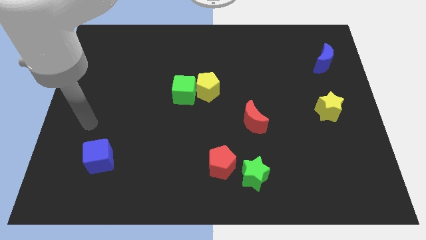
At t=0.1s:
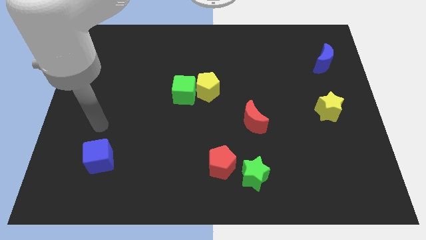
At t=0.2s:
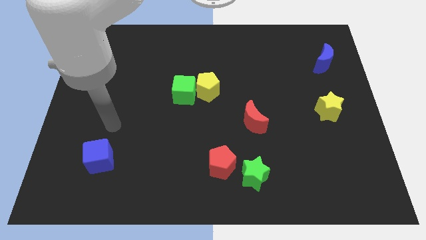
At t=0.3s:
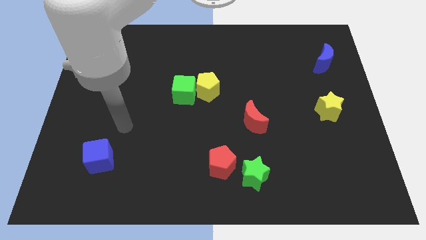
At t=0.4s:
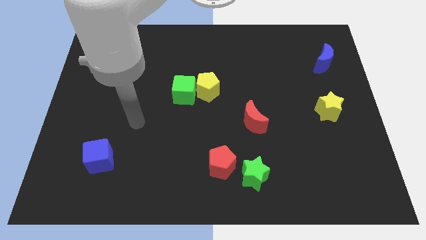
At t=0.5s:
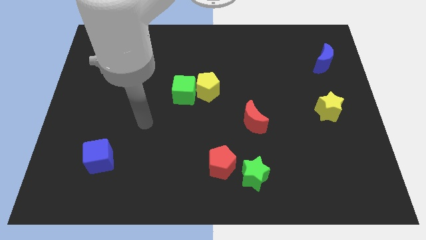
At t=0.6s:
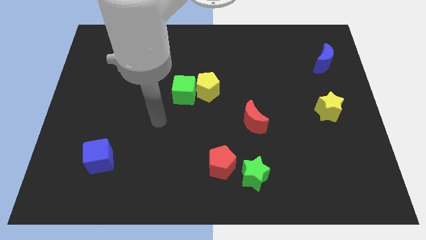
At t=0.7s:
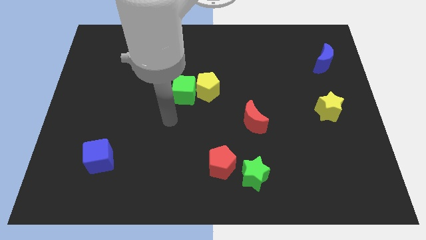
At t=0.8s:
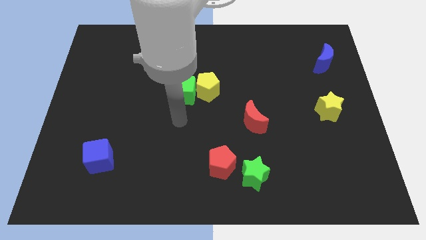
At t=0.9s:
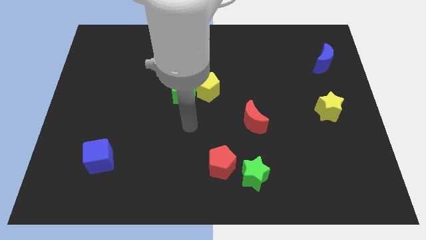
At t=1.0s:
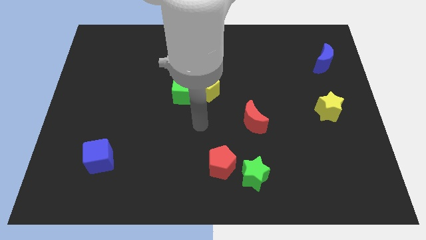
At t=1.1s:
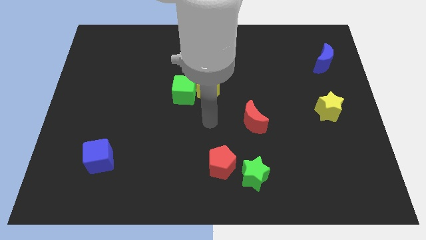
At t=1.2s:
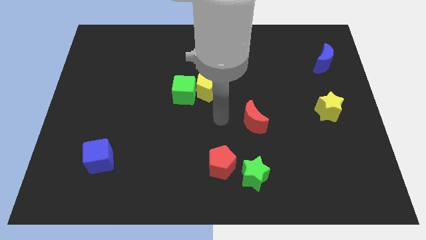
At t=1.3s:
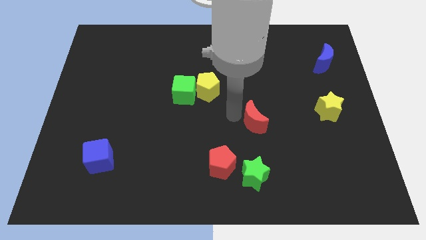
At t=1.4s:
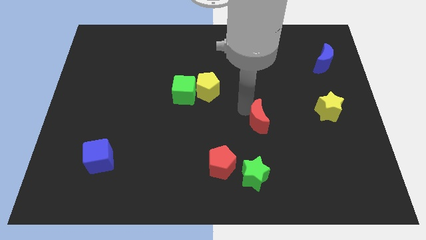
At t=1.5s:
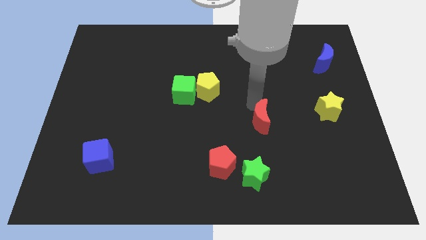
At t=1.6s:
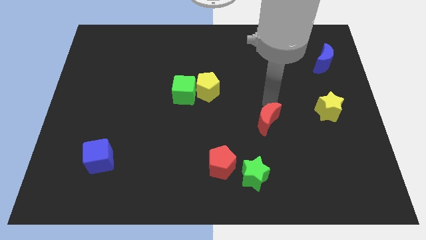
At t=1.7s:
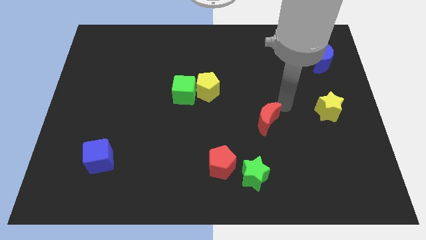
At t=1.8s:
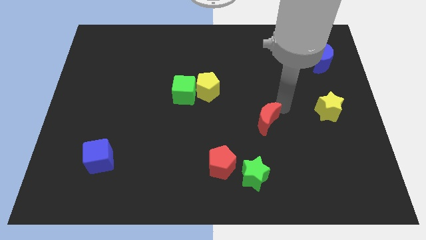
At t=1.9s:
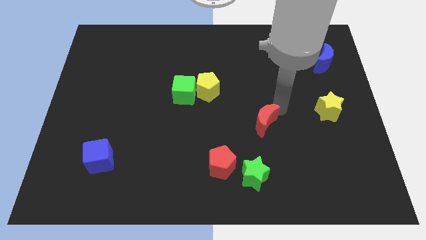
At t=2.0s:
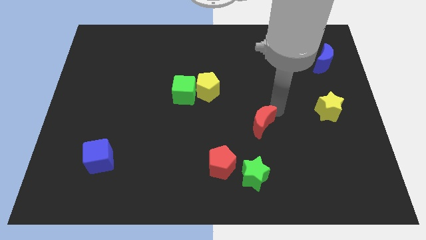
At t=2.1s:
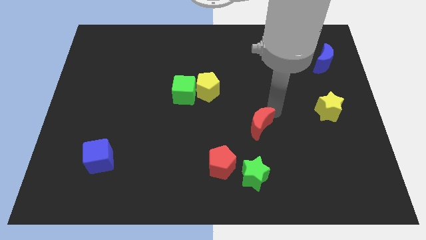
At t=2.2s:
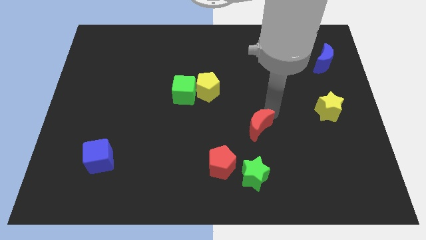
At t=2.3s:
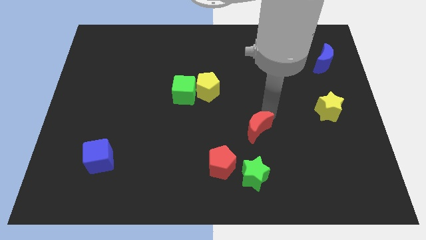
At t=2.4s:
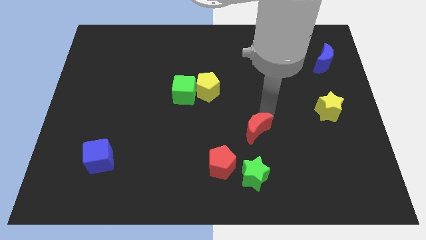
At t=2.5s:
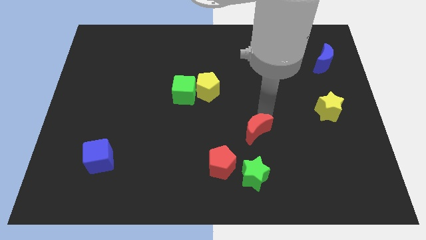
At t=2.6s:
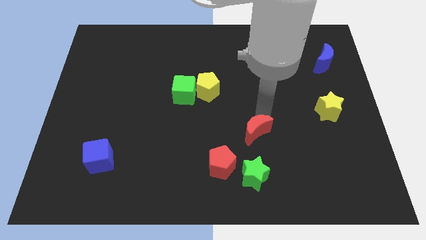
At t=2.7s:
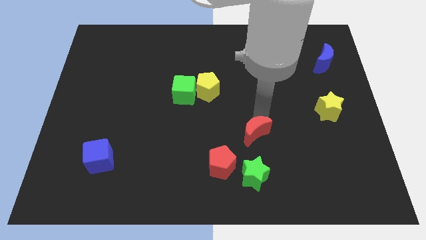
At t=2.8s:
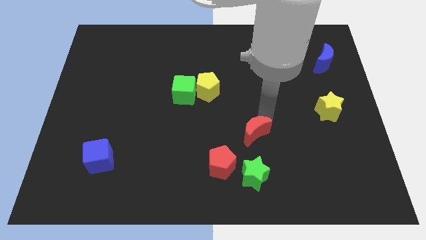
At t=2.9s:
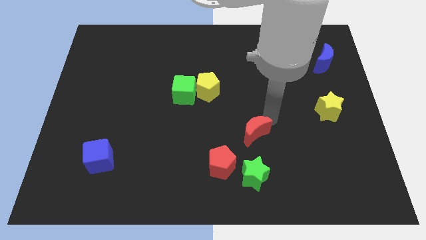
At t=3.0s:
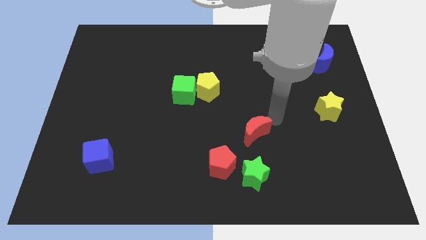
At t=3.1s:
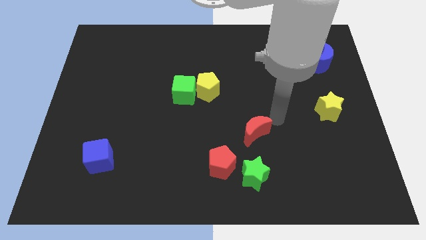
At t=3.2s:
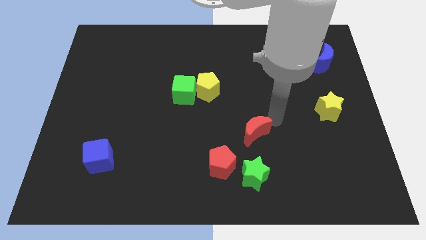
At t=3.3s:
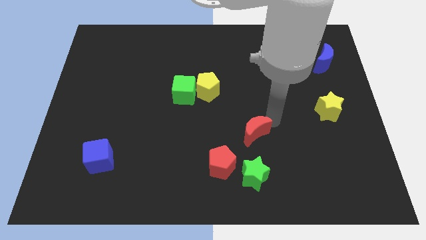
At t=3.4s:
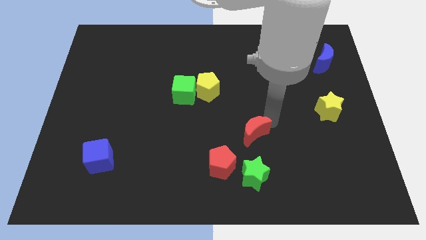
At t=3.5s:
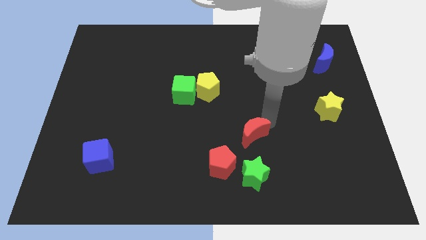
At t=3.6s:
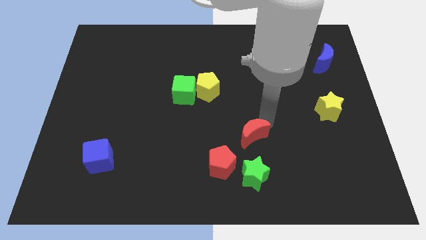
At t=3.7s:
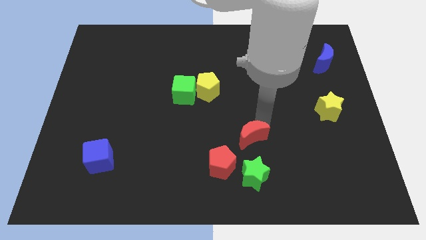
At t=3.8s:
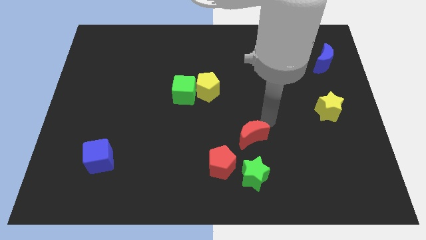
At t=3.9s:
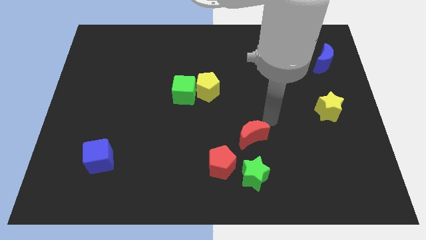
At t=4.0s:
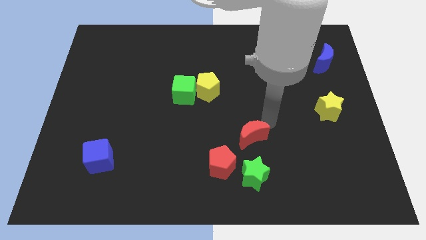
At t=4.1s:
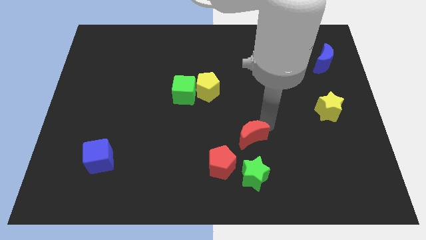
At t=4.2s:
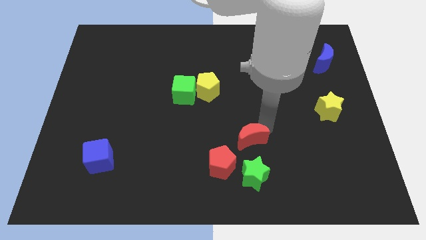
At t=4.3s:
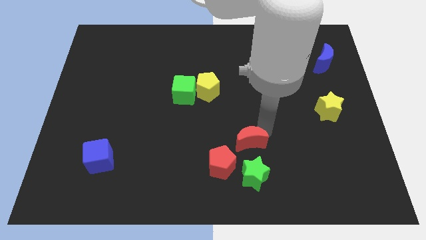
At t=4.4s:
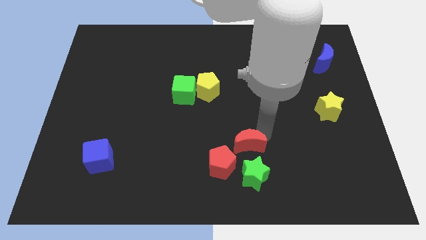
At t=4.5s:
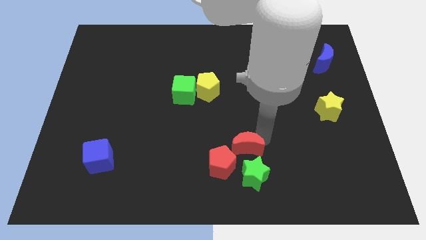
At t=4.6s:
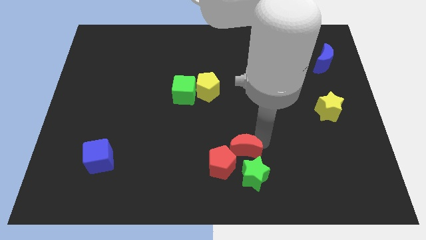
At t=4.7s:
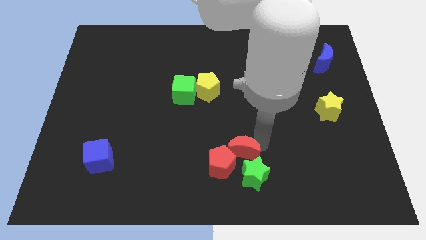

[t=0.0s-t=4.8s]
move the red moon close to the red pentagon

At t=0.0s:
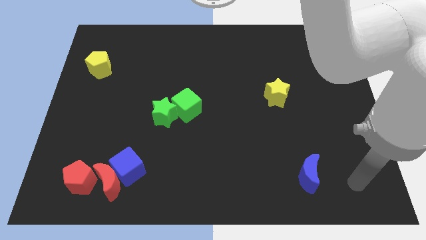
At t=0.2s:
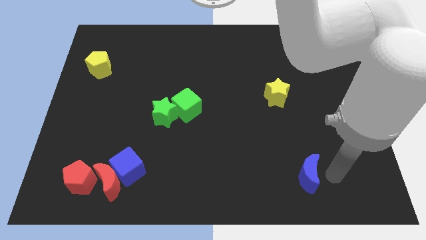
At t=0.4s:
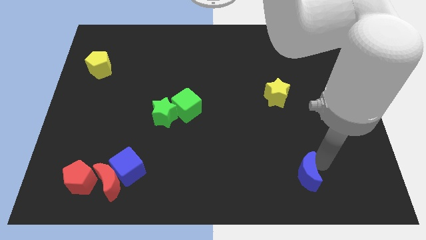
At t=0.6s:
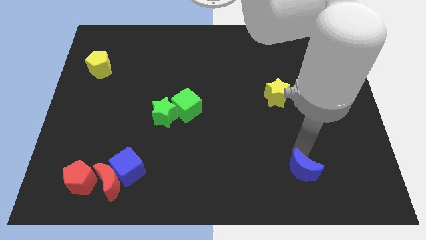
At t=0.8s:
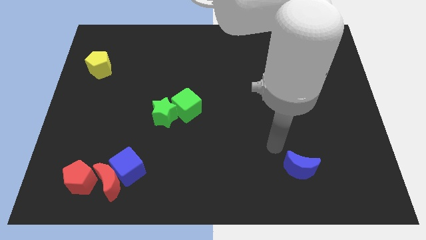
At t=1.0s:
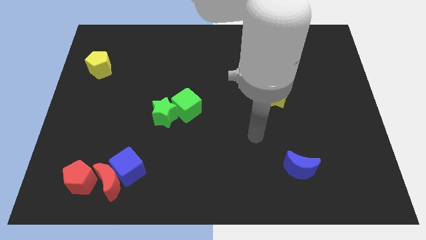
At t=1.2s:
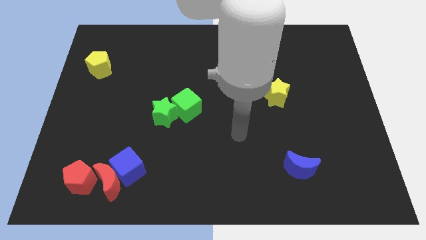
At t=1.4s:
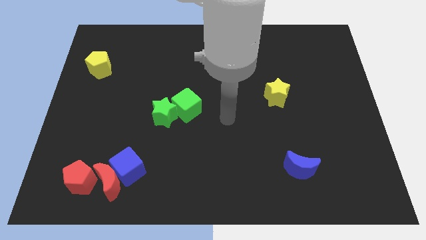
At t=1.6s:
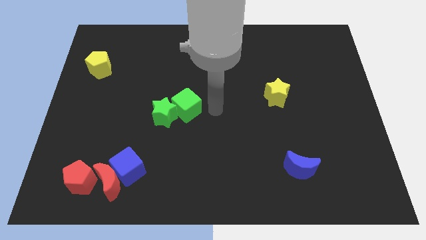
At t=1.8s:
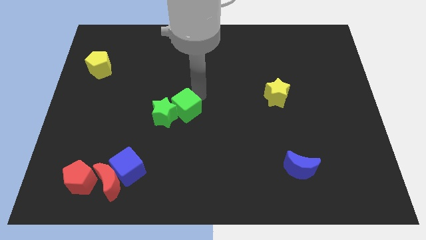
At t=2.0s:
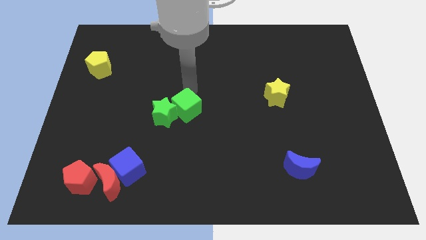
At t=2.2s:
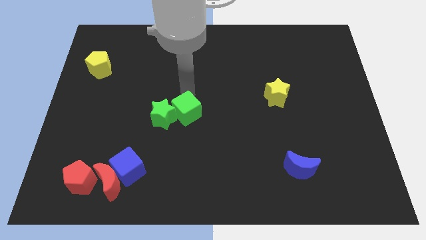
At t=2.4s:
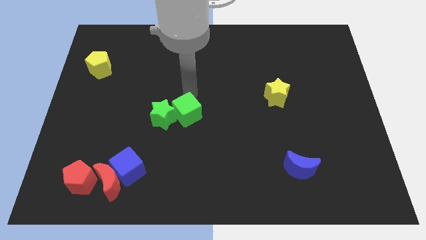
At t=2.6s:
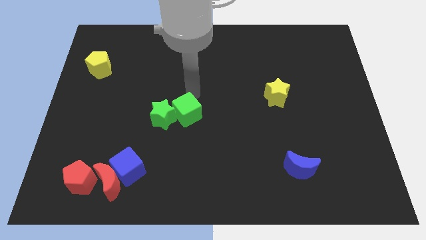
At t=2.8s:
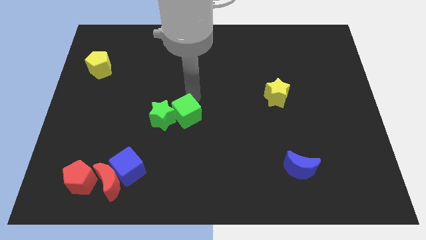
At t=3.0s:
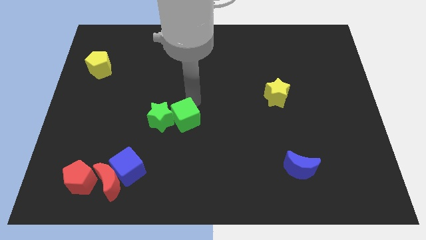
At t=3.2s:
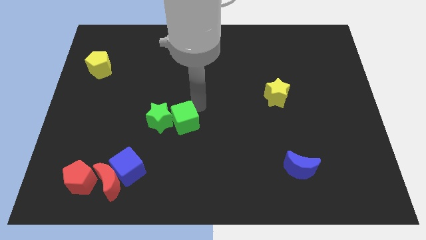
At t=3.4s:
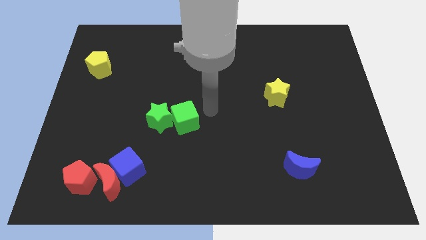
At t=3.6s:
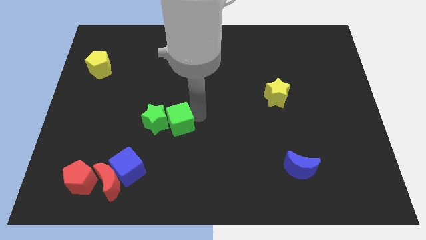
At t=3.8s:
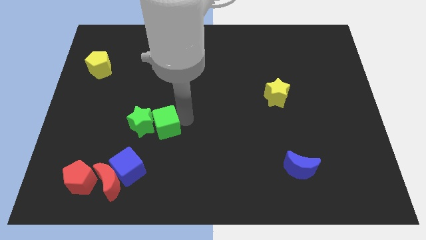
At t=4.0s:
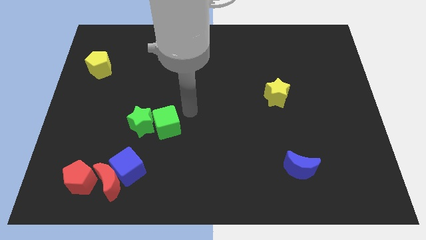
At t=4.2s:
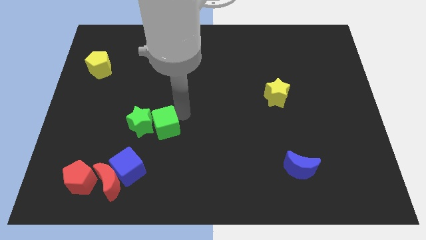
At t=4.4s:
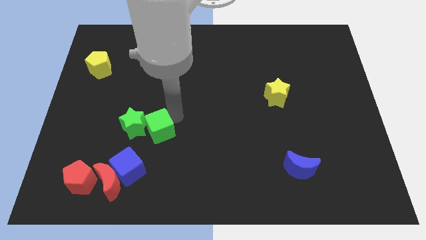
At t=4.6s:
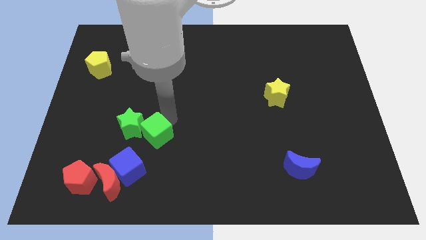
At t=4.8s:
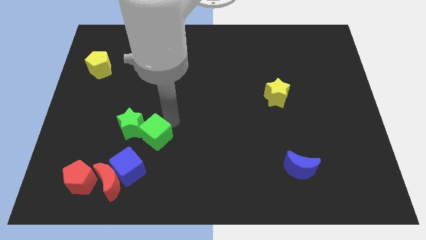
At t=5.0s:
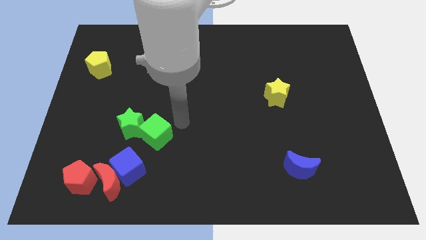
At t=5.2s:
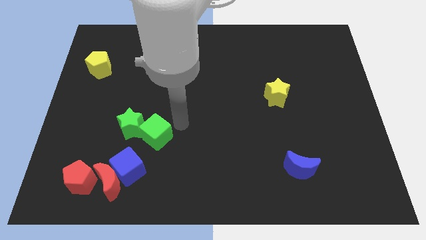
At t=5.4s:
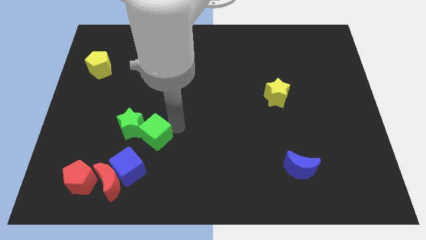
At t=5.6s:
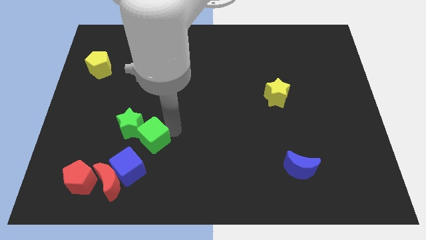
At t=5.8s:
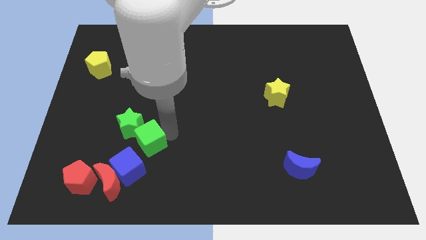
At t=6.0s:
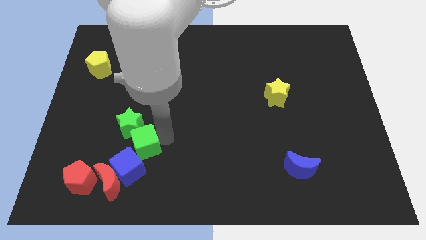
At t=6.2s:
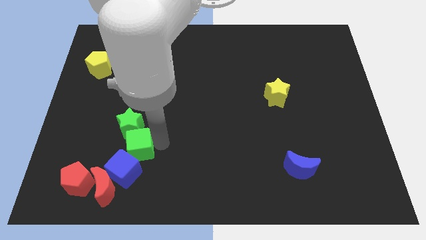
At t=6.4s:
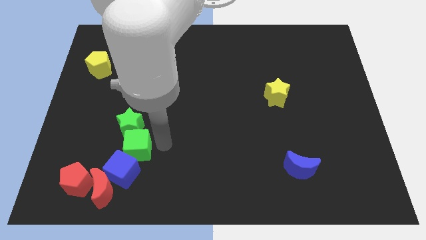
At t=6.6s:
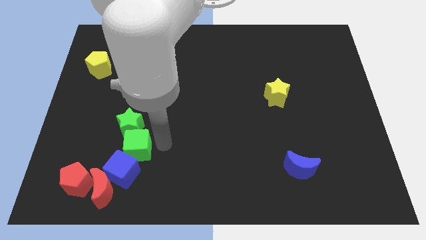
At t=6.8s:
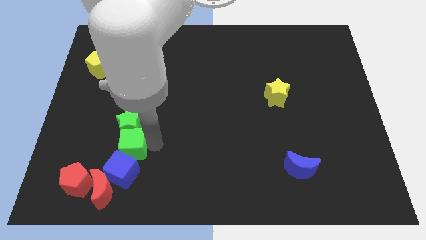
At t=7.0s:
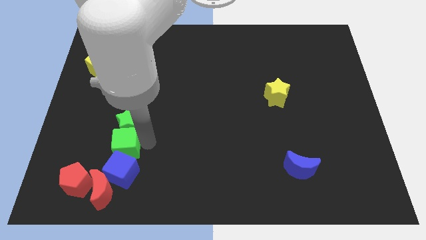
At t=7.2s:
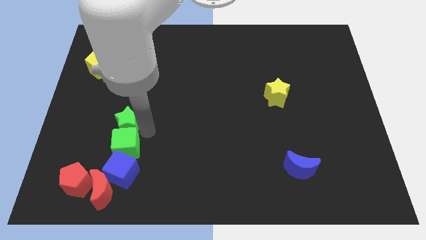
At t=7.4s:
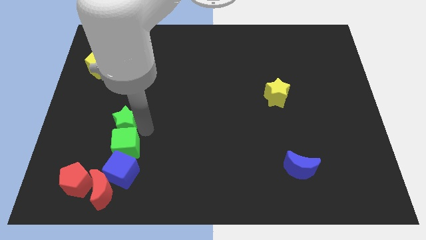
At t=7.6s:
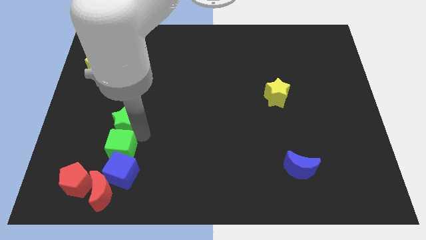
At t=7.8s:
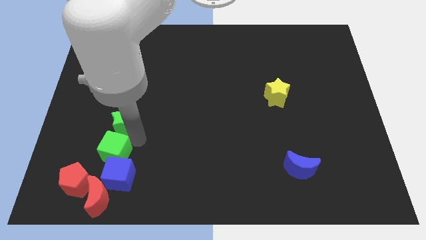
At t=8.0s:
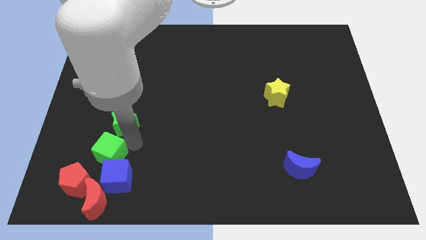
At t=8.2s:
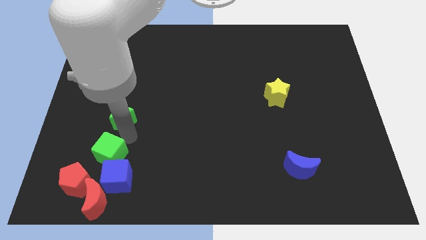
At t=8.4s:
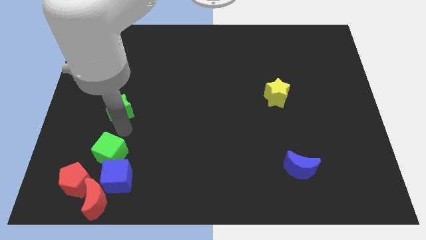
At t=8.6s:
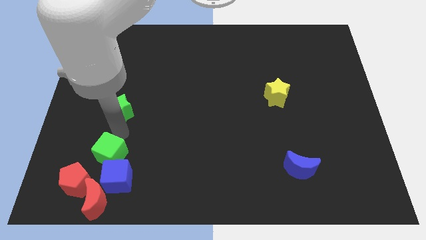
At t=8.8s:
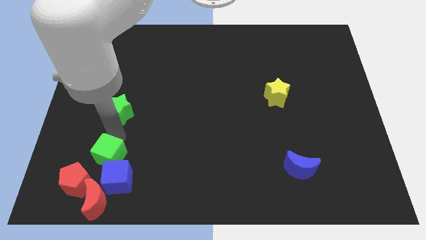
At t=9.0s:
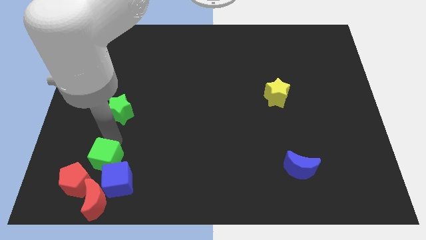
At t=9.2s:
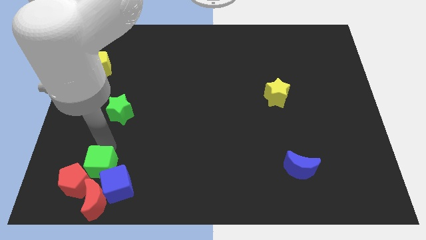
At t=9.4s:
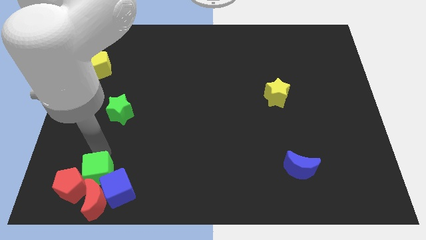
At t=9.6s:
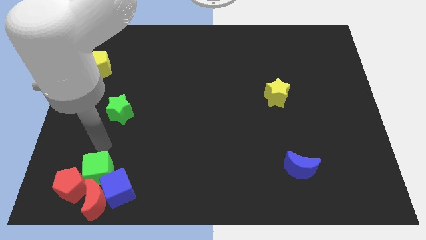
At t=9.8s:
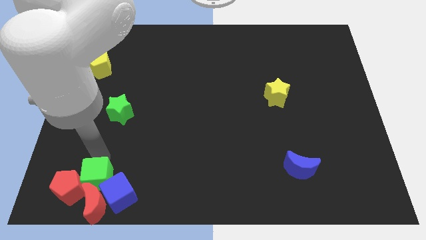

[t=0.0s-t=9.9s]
slide the green cube close to the red moon
